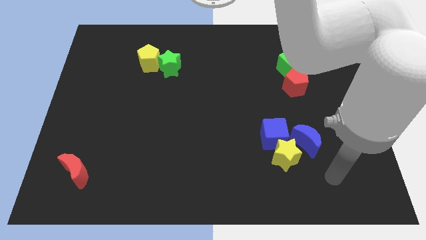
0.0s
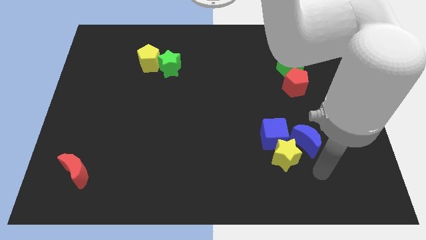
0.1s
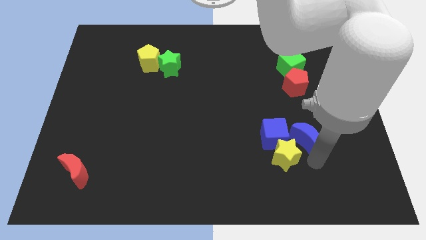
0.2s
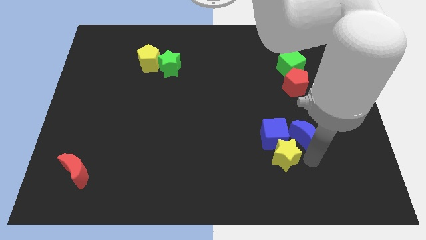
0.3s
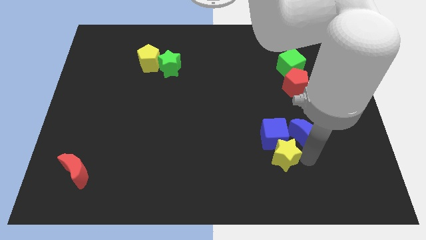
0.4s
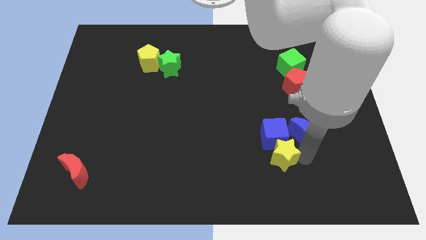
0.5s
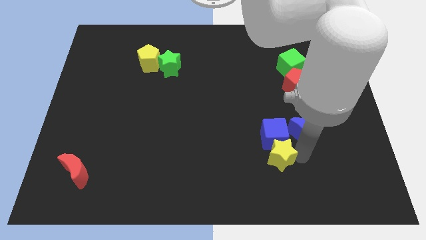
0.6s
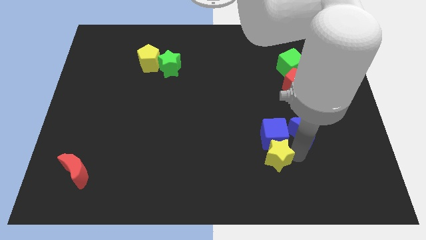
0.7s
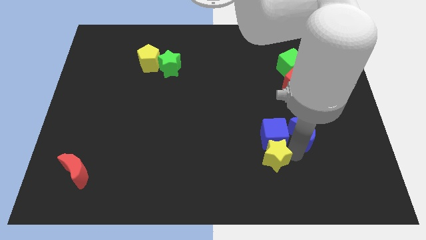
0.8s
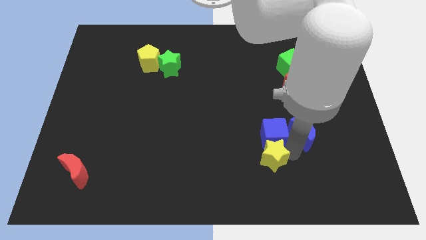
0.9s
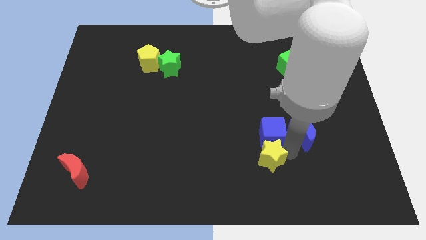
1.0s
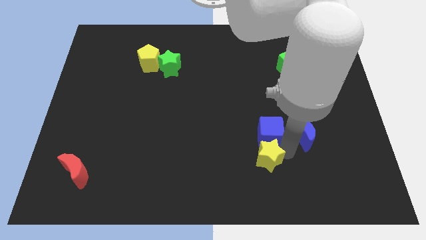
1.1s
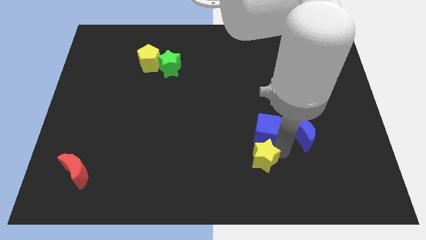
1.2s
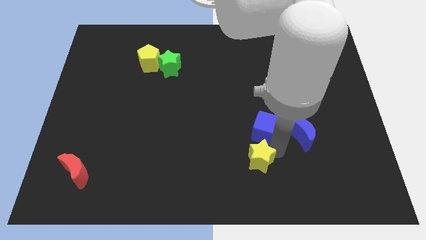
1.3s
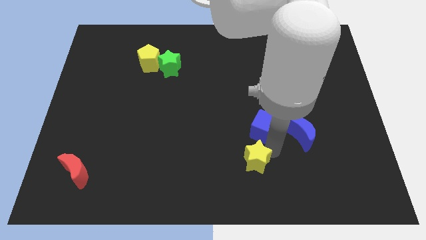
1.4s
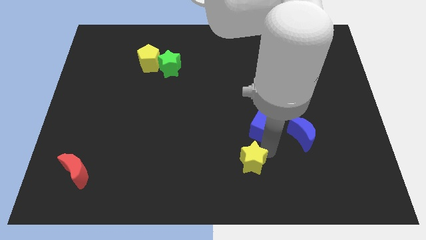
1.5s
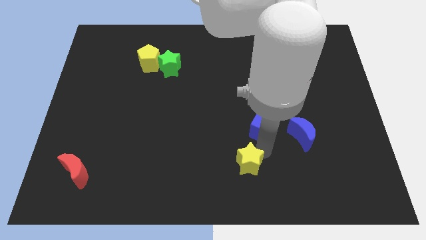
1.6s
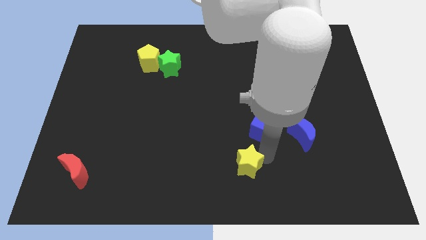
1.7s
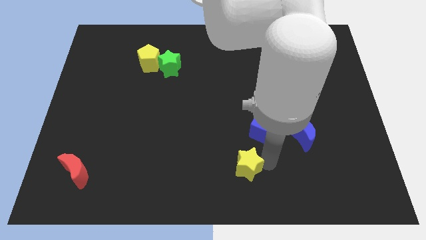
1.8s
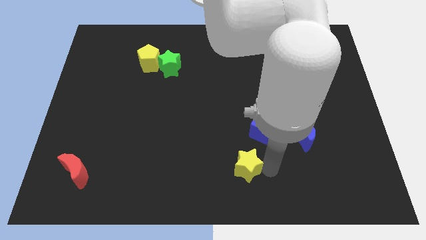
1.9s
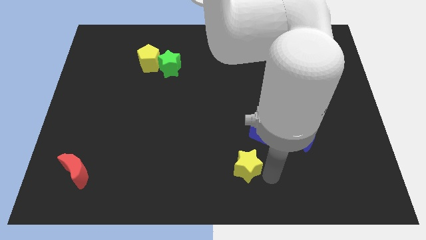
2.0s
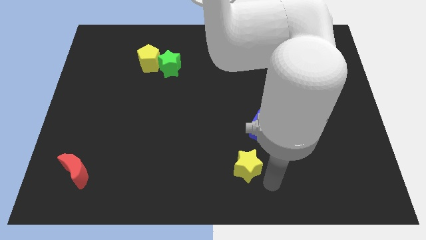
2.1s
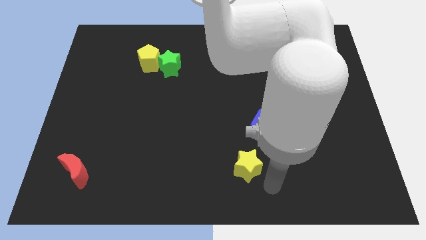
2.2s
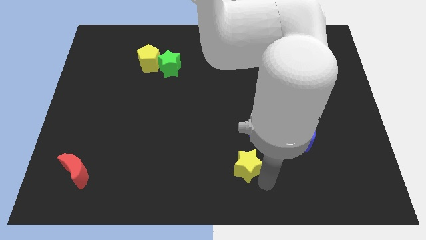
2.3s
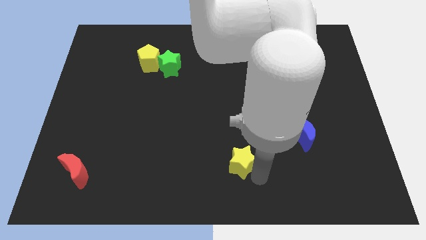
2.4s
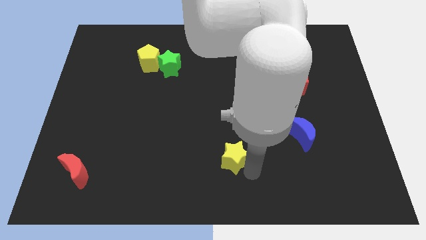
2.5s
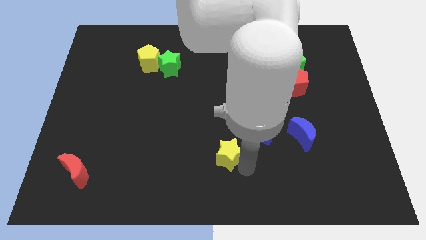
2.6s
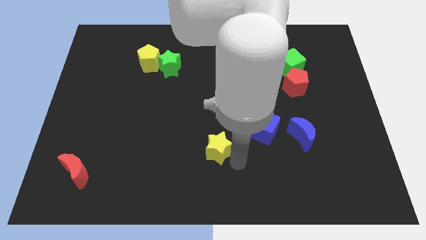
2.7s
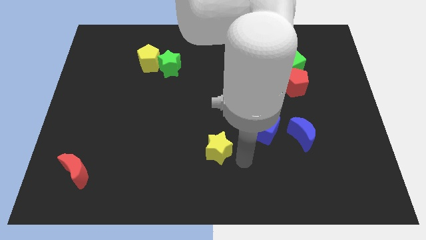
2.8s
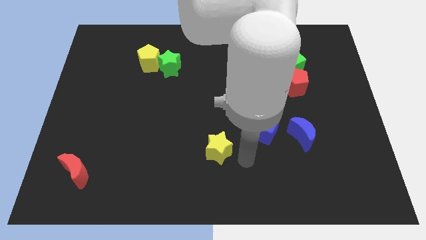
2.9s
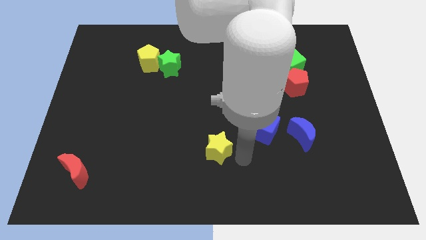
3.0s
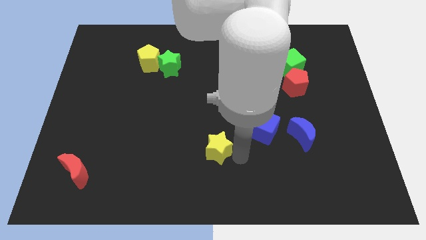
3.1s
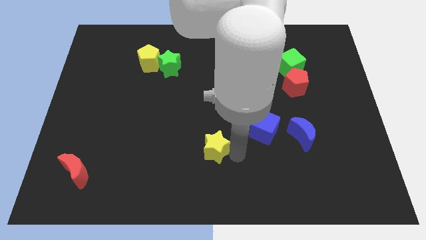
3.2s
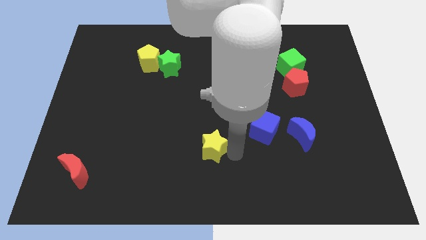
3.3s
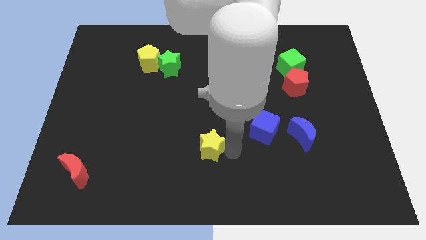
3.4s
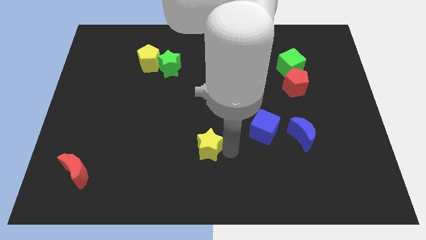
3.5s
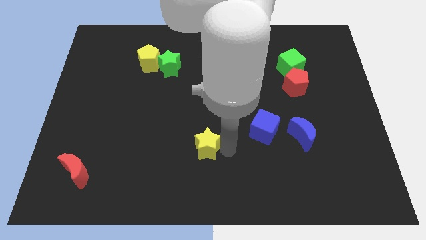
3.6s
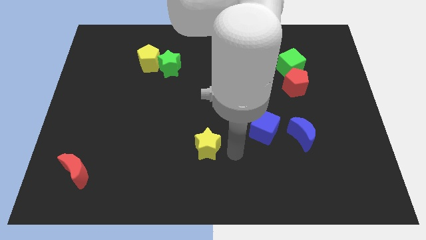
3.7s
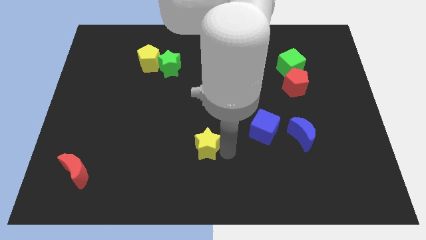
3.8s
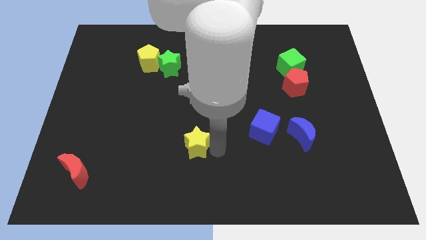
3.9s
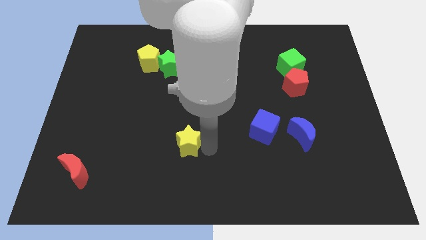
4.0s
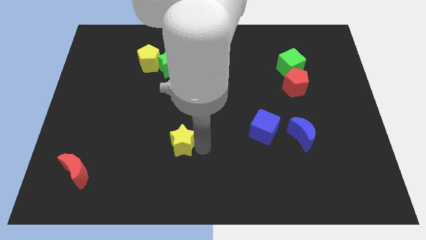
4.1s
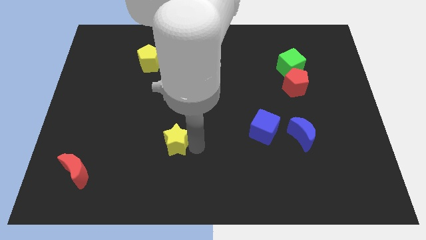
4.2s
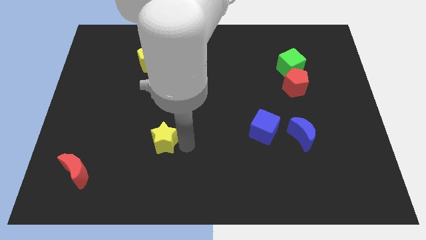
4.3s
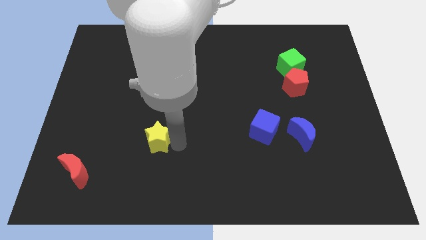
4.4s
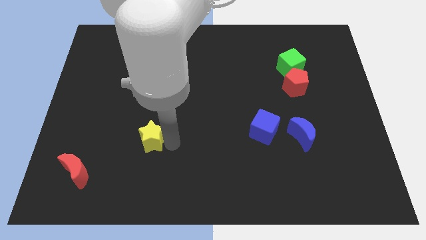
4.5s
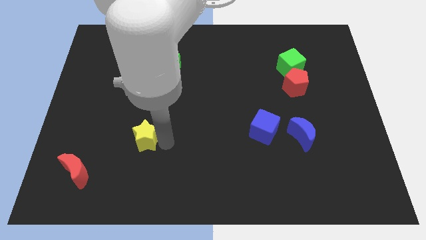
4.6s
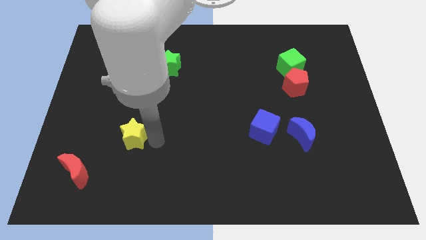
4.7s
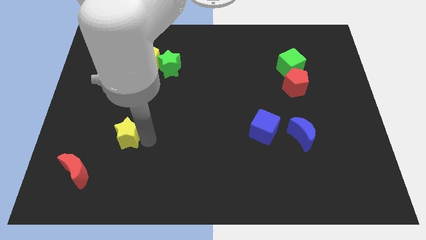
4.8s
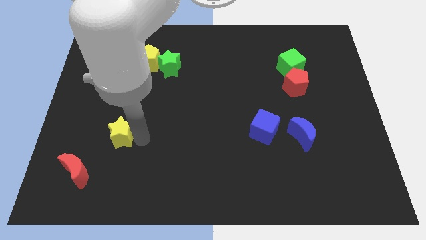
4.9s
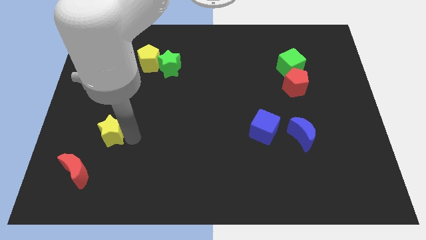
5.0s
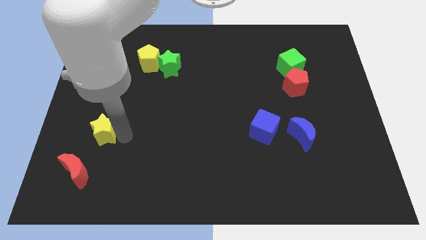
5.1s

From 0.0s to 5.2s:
move the yellow star to the top side of the red moon

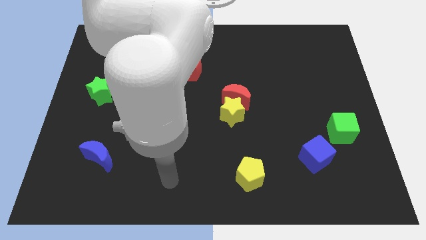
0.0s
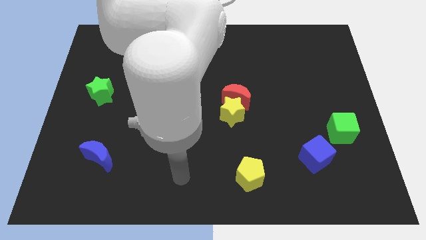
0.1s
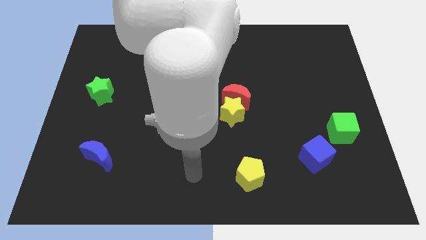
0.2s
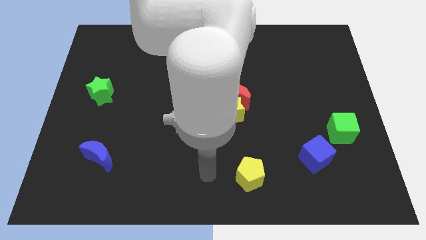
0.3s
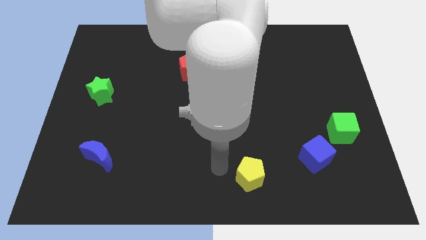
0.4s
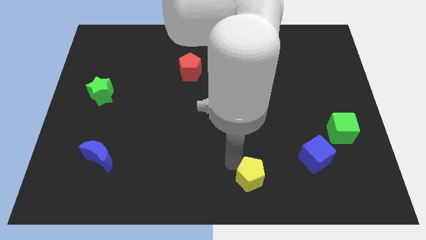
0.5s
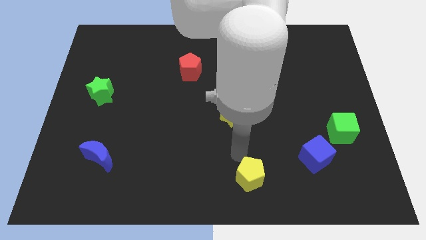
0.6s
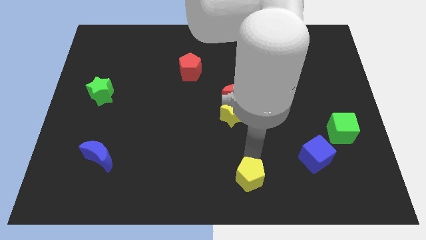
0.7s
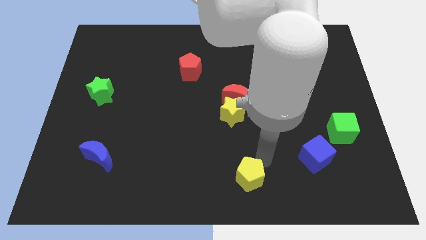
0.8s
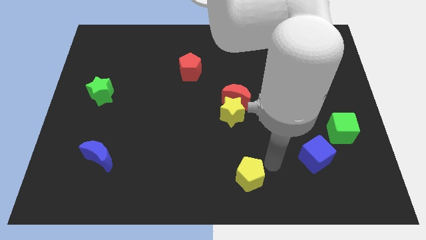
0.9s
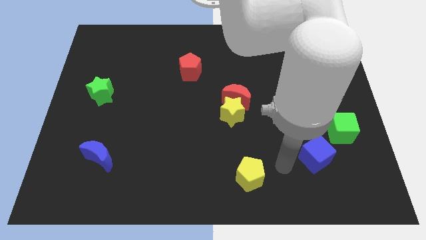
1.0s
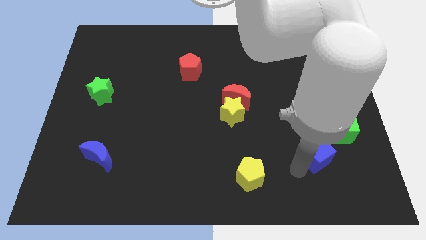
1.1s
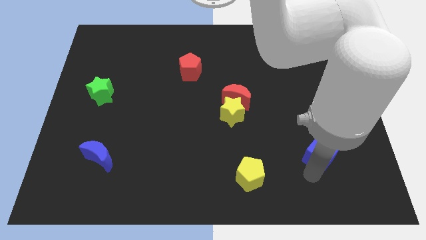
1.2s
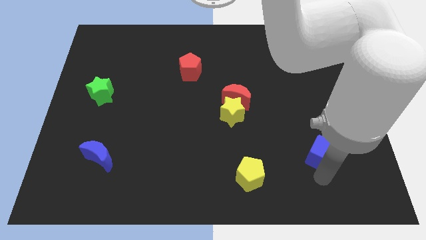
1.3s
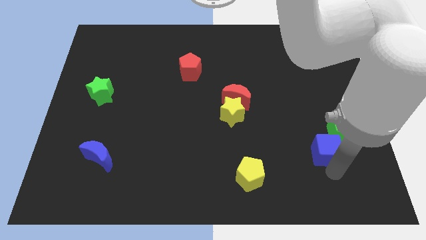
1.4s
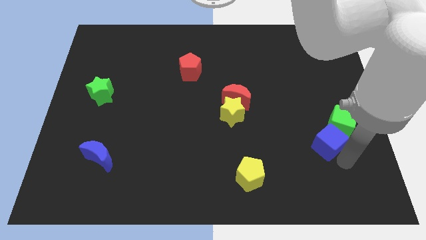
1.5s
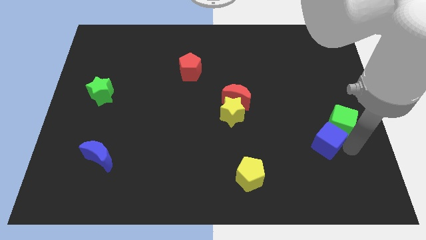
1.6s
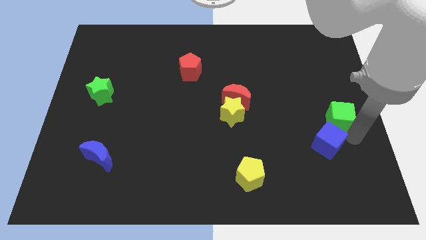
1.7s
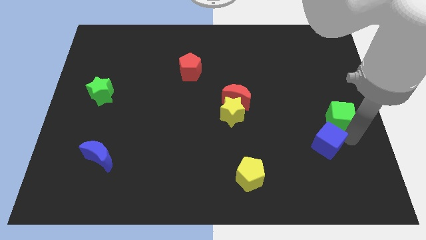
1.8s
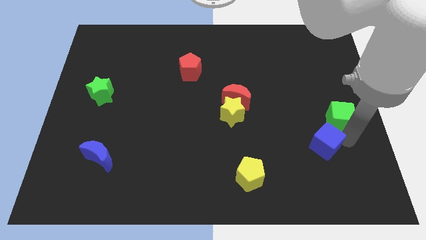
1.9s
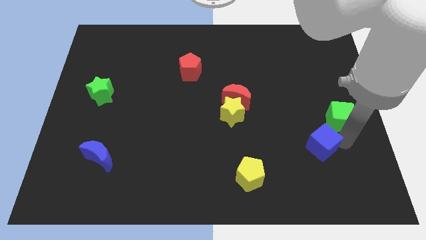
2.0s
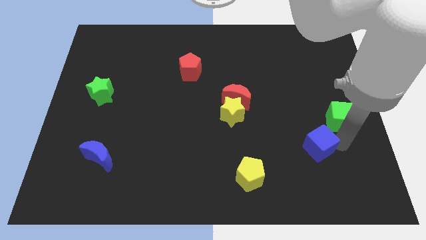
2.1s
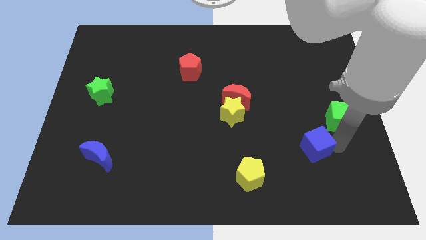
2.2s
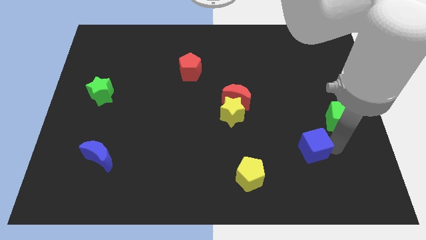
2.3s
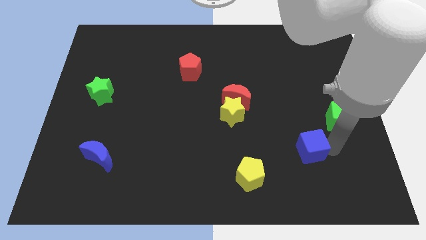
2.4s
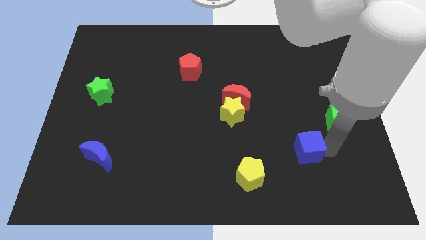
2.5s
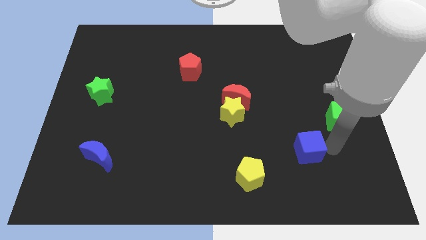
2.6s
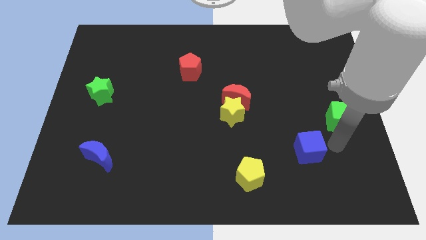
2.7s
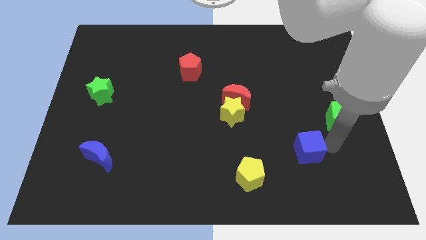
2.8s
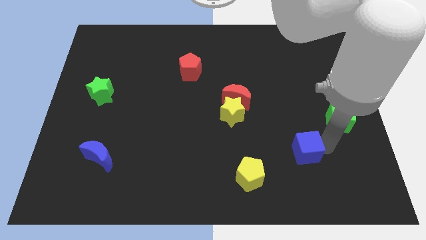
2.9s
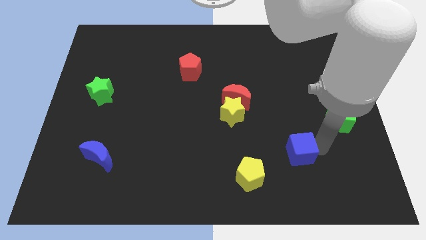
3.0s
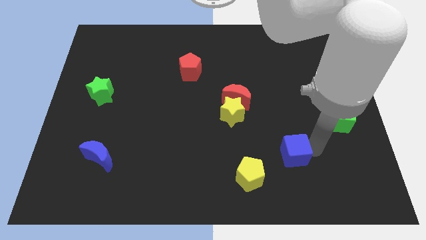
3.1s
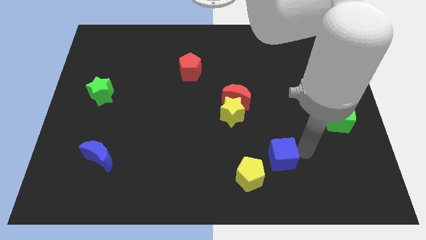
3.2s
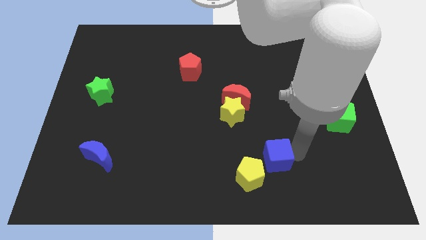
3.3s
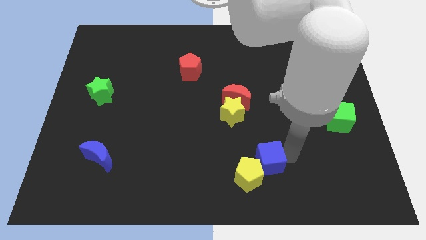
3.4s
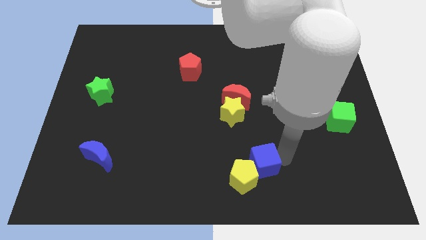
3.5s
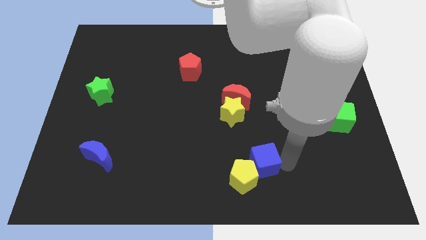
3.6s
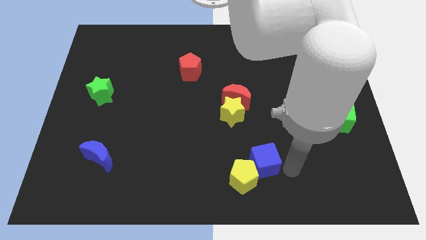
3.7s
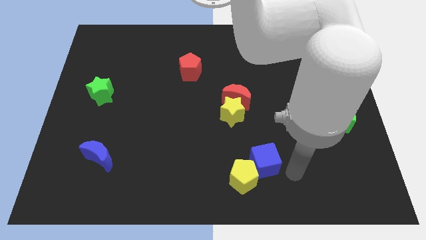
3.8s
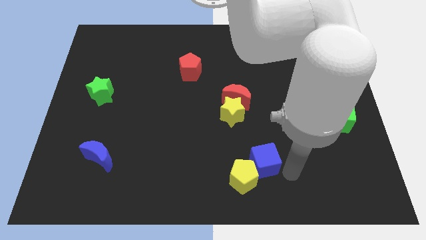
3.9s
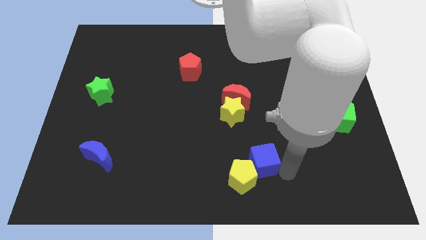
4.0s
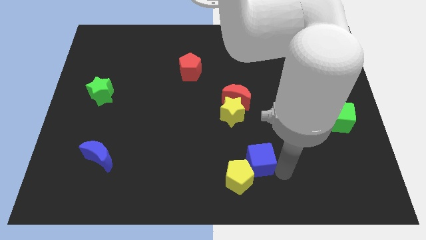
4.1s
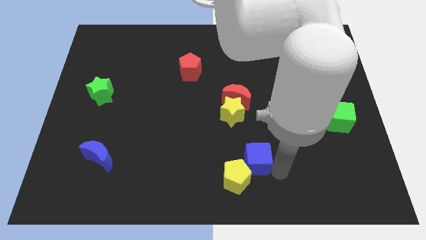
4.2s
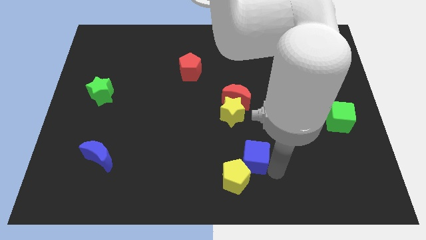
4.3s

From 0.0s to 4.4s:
put the blue cube to the bottom side of the yellow star
